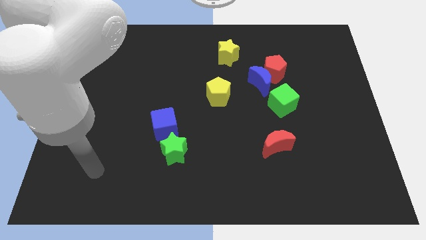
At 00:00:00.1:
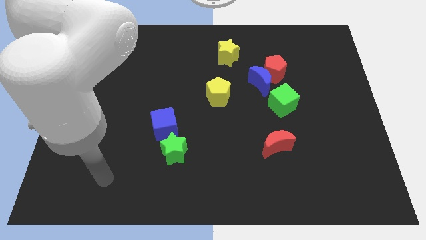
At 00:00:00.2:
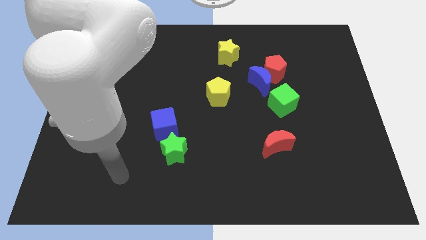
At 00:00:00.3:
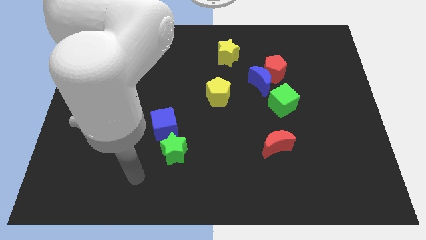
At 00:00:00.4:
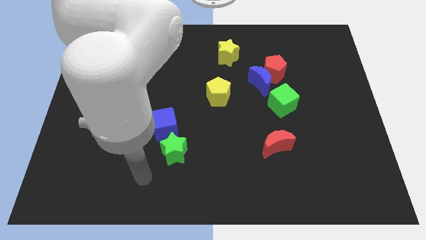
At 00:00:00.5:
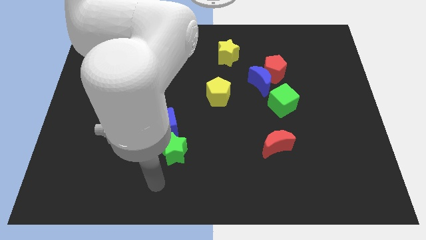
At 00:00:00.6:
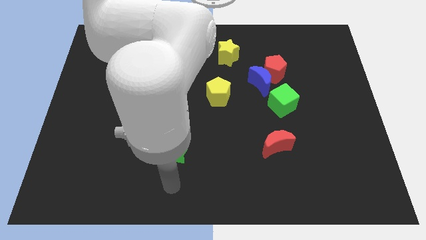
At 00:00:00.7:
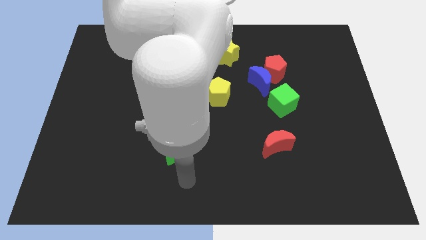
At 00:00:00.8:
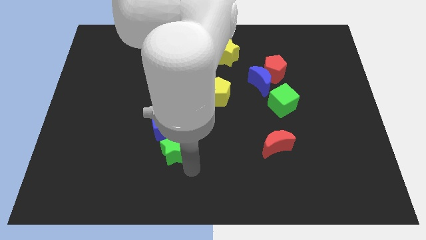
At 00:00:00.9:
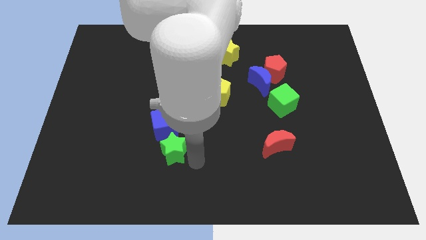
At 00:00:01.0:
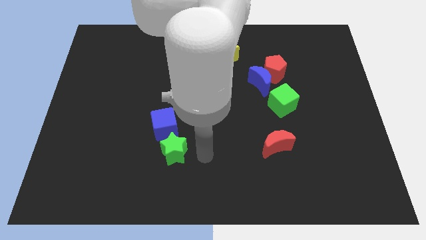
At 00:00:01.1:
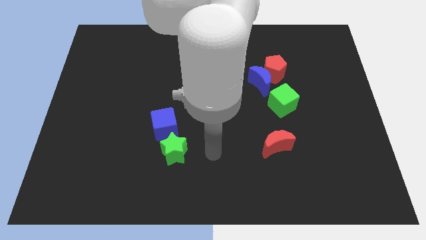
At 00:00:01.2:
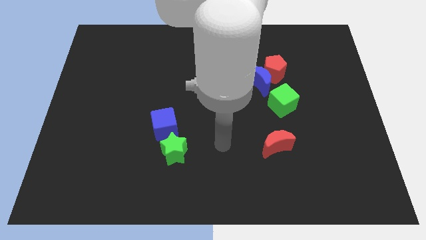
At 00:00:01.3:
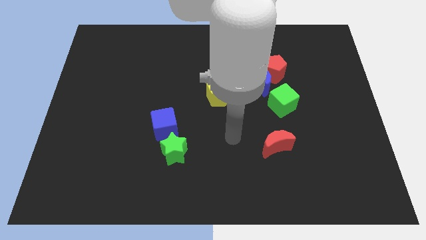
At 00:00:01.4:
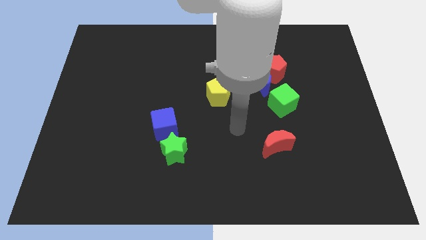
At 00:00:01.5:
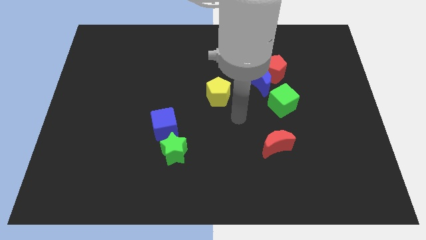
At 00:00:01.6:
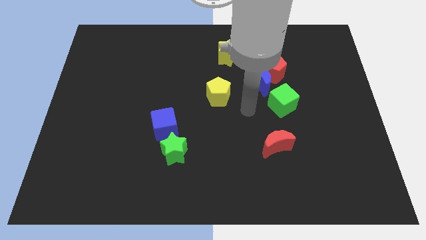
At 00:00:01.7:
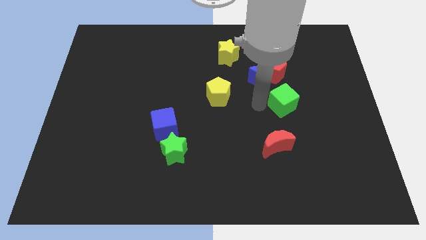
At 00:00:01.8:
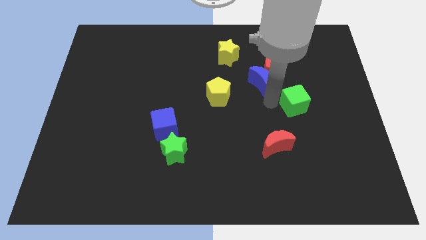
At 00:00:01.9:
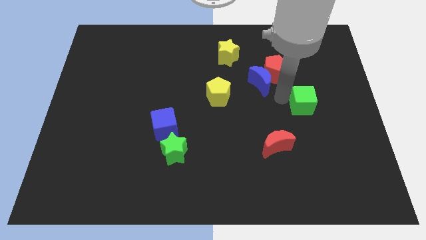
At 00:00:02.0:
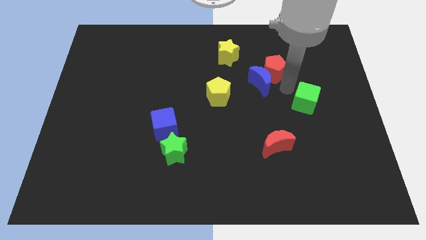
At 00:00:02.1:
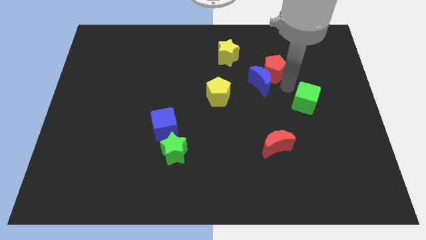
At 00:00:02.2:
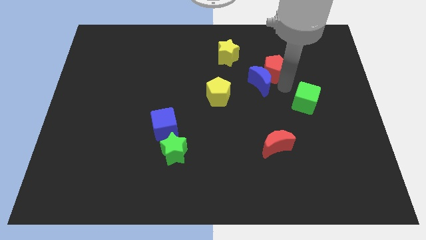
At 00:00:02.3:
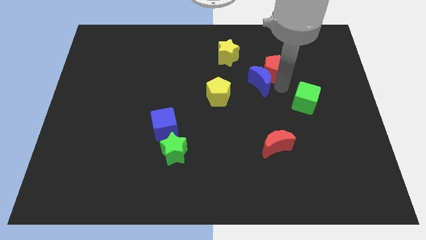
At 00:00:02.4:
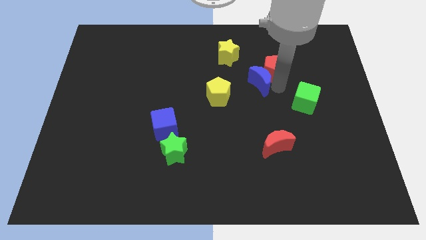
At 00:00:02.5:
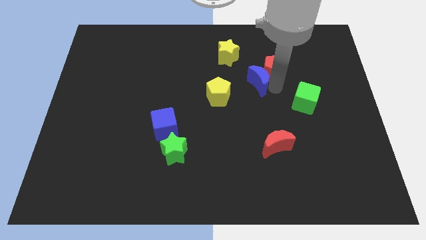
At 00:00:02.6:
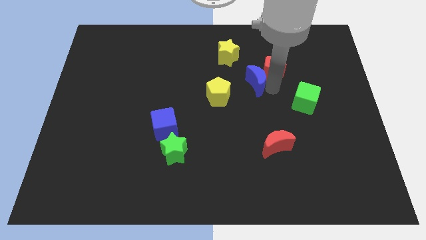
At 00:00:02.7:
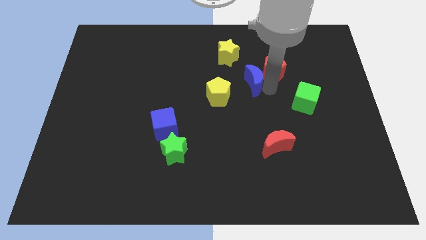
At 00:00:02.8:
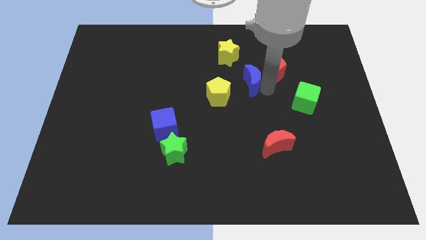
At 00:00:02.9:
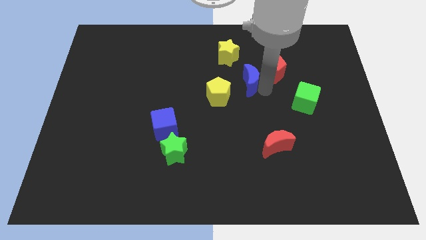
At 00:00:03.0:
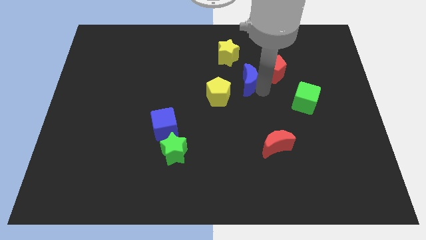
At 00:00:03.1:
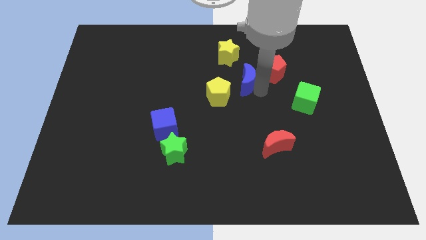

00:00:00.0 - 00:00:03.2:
separate the blue moon from the red pentagon and green cube

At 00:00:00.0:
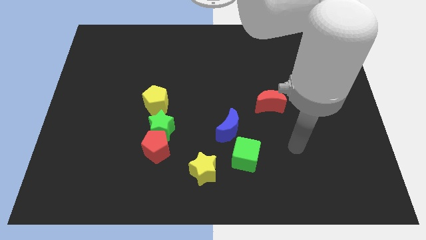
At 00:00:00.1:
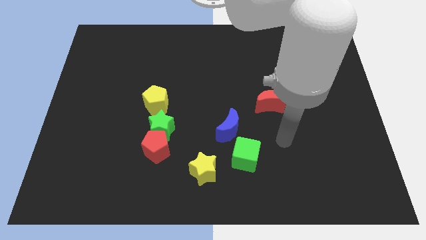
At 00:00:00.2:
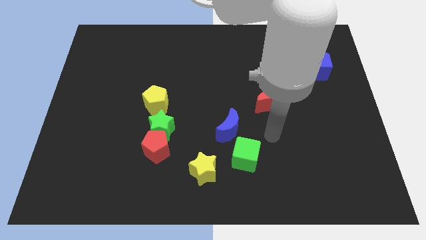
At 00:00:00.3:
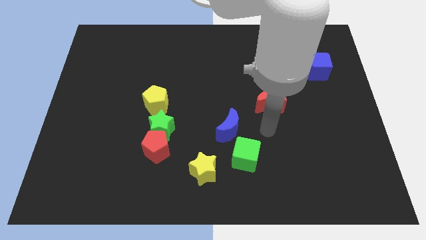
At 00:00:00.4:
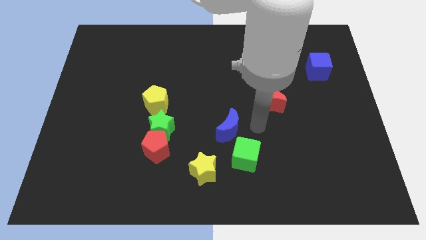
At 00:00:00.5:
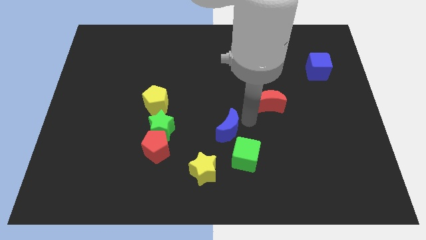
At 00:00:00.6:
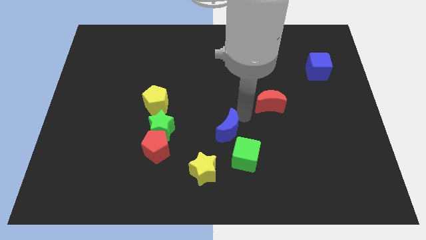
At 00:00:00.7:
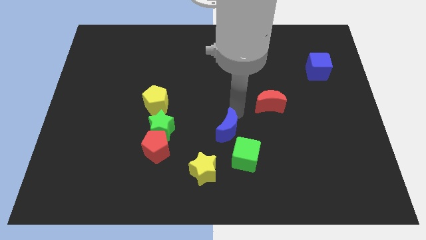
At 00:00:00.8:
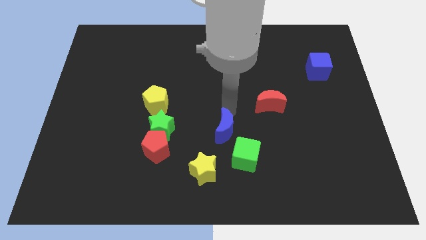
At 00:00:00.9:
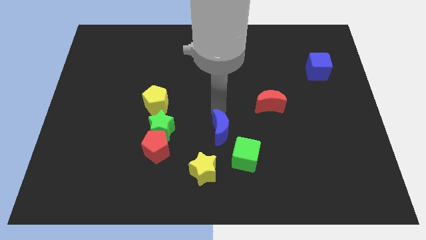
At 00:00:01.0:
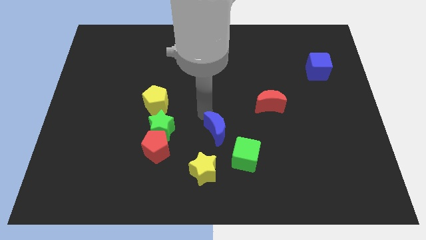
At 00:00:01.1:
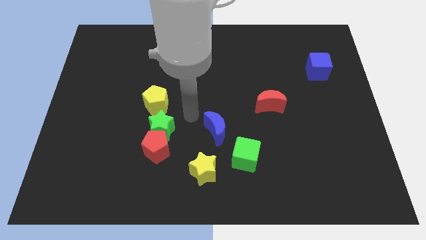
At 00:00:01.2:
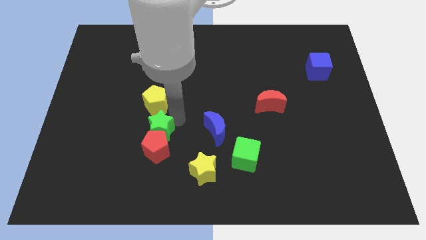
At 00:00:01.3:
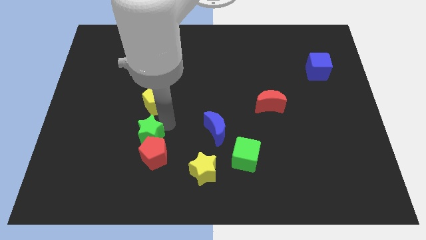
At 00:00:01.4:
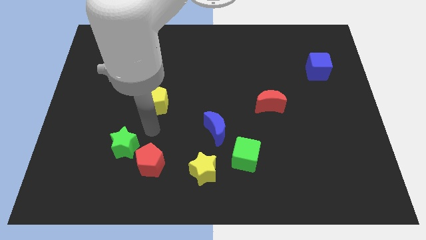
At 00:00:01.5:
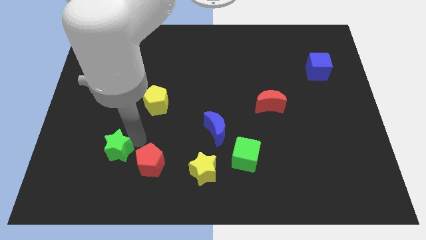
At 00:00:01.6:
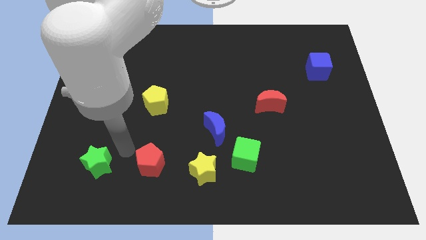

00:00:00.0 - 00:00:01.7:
separate the red pentagon from the green star

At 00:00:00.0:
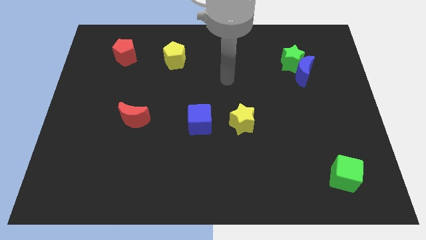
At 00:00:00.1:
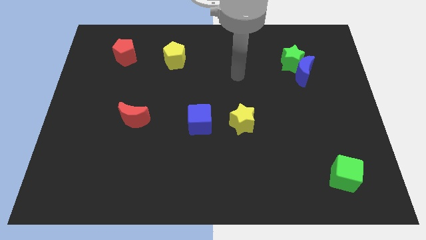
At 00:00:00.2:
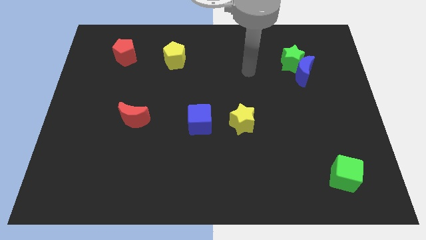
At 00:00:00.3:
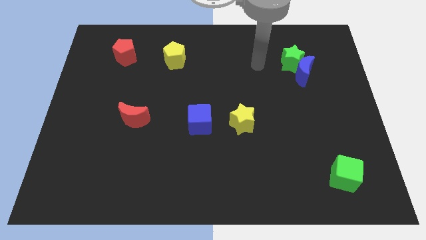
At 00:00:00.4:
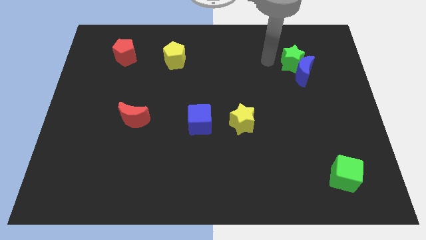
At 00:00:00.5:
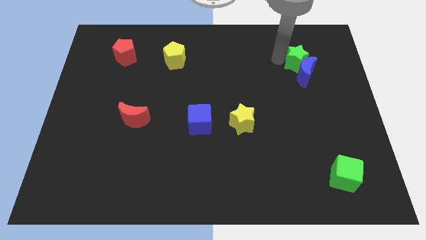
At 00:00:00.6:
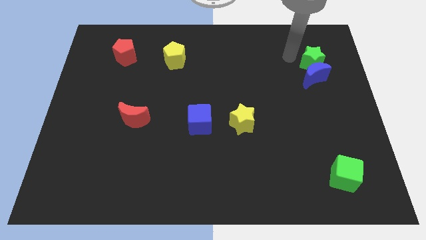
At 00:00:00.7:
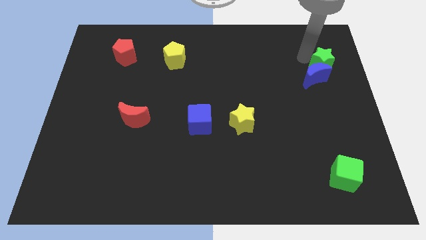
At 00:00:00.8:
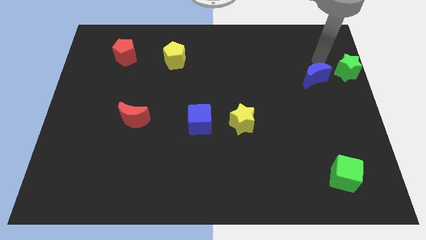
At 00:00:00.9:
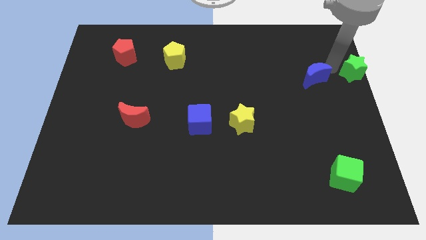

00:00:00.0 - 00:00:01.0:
separate the blue moon from the green star

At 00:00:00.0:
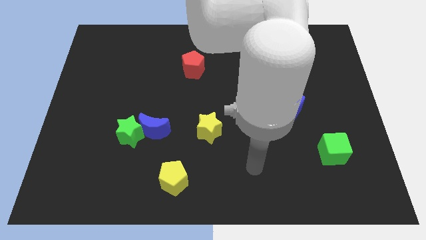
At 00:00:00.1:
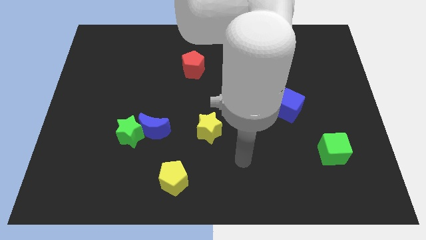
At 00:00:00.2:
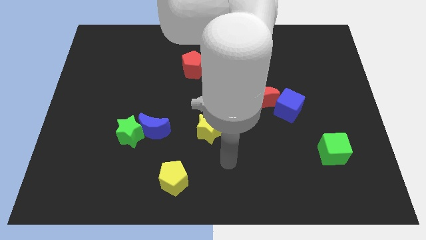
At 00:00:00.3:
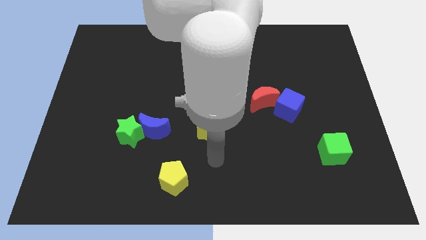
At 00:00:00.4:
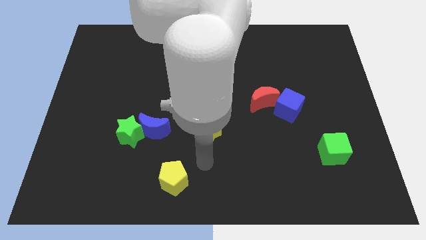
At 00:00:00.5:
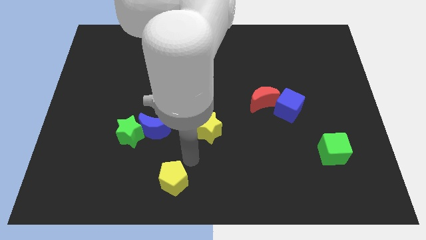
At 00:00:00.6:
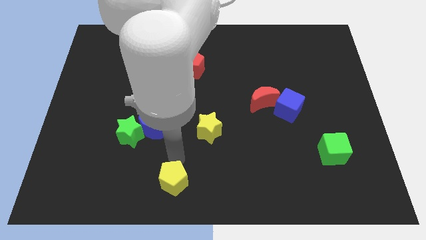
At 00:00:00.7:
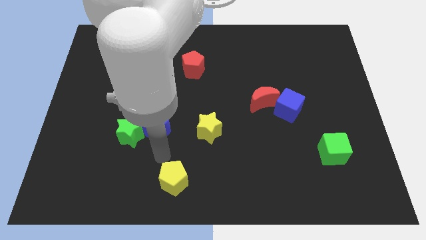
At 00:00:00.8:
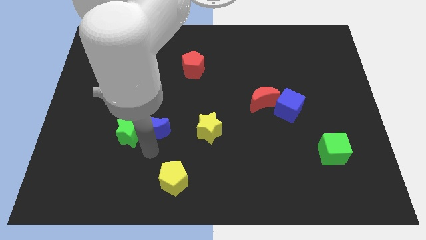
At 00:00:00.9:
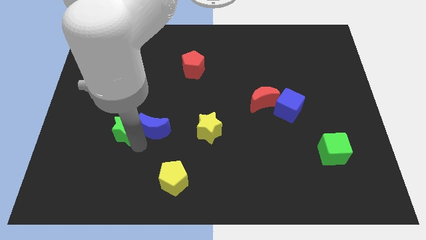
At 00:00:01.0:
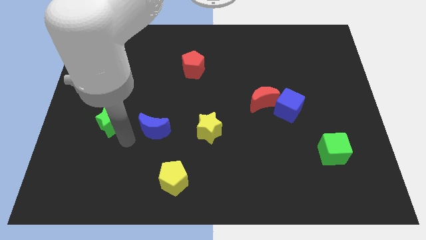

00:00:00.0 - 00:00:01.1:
pull the blue moon apart from the green star

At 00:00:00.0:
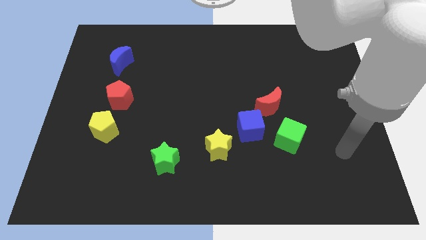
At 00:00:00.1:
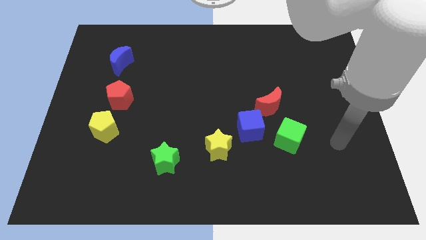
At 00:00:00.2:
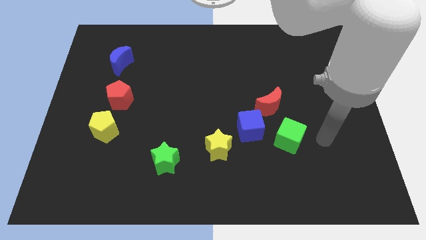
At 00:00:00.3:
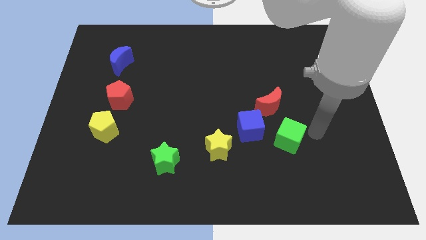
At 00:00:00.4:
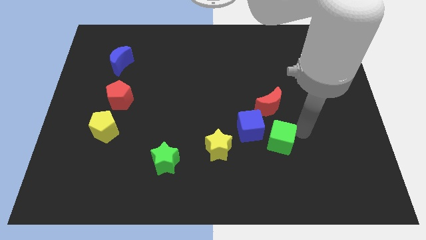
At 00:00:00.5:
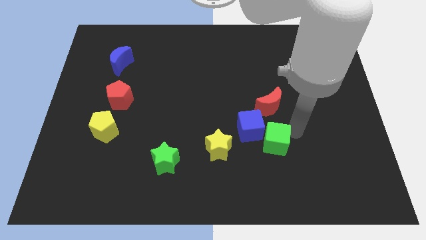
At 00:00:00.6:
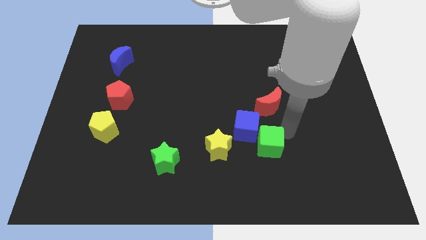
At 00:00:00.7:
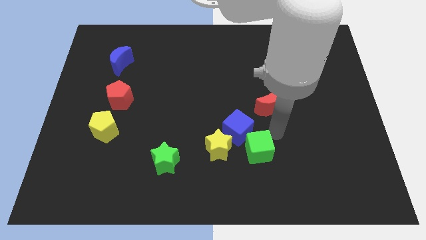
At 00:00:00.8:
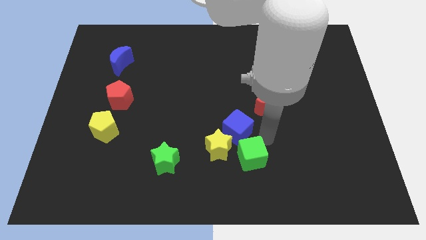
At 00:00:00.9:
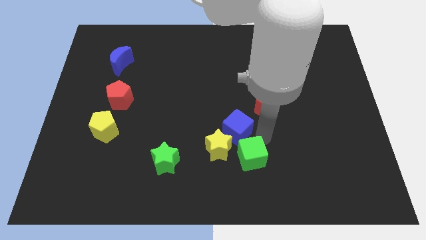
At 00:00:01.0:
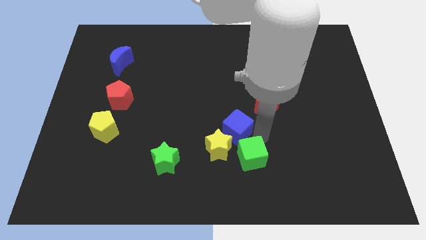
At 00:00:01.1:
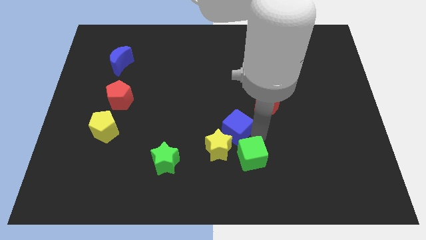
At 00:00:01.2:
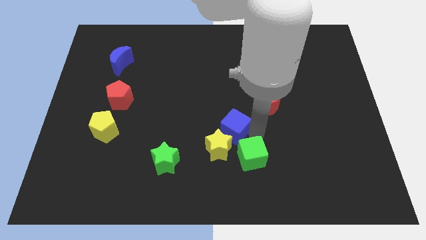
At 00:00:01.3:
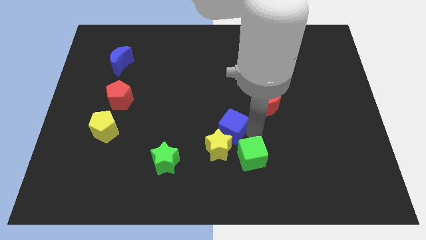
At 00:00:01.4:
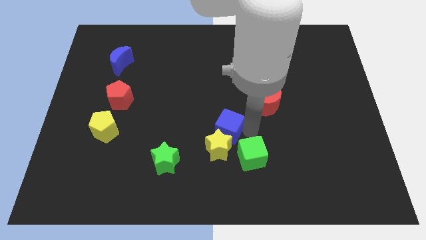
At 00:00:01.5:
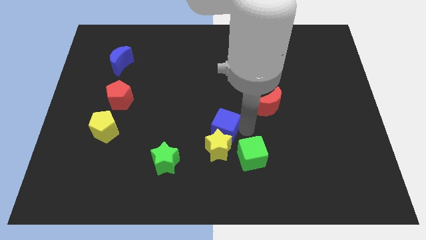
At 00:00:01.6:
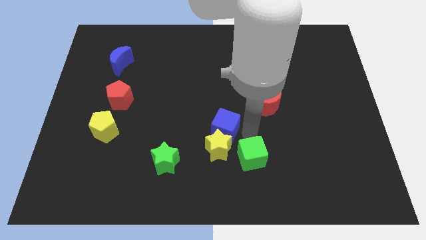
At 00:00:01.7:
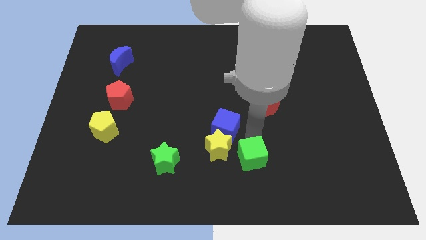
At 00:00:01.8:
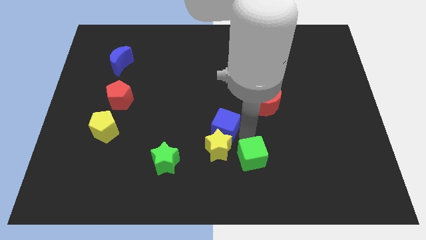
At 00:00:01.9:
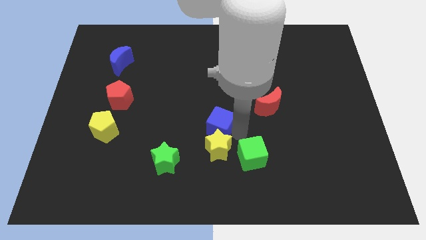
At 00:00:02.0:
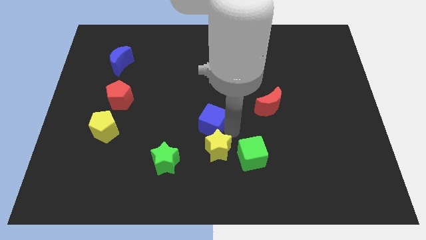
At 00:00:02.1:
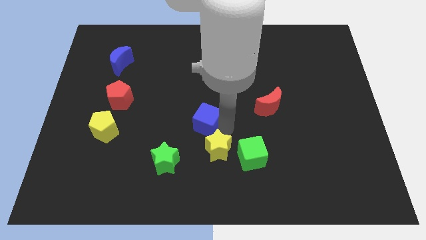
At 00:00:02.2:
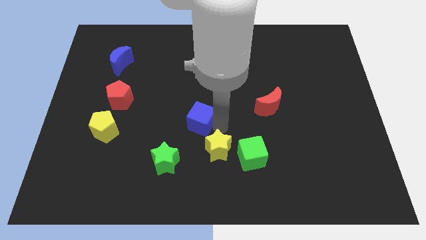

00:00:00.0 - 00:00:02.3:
pull the blue cube apart from the group of blocks

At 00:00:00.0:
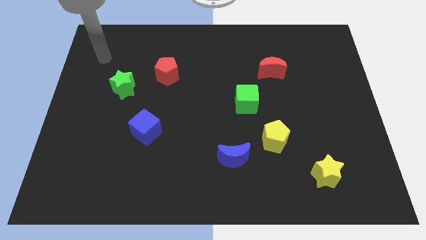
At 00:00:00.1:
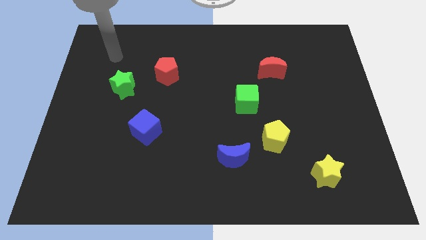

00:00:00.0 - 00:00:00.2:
separate the blue moon from the yellow pentagon
